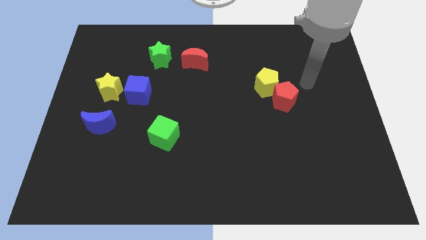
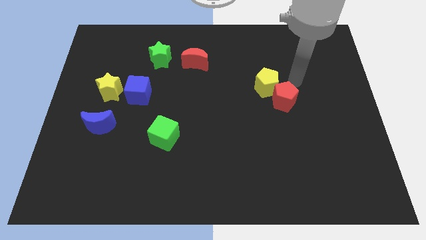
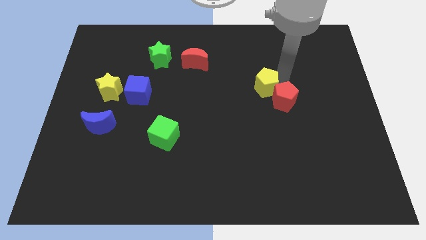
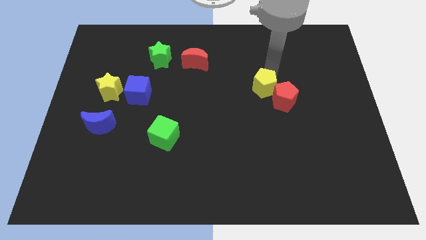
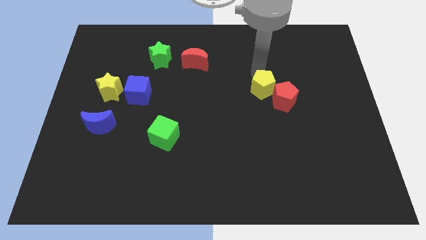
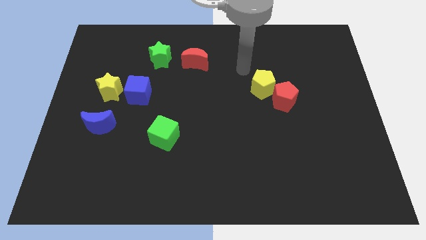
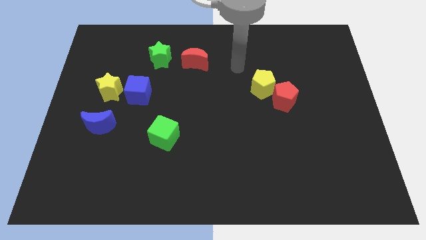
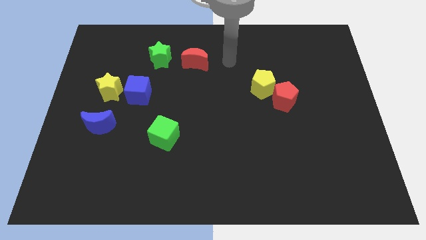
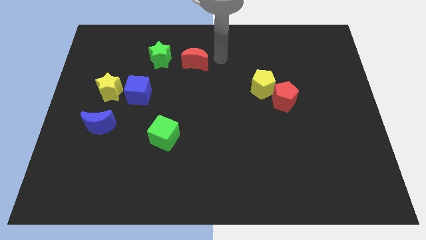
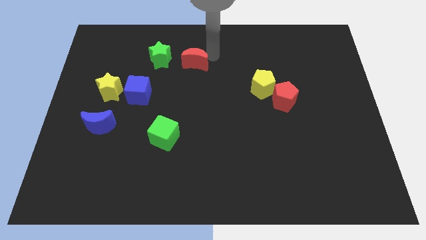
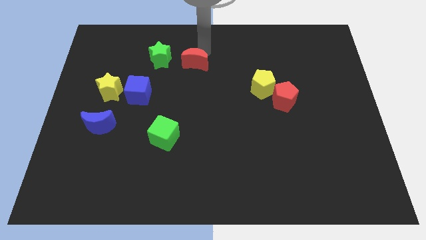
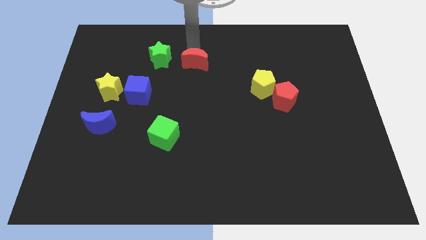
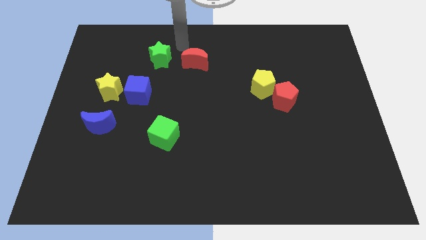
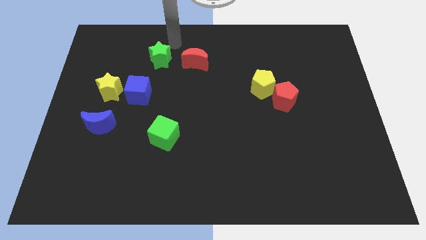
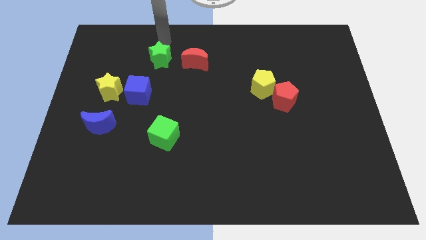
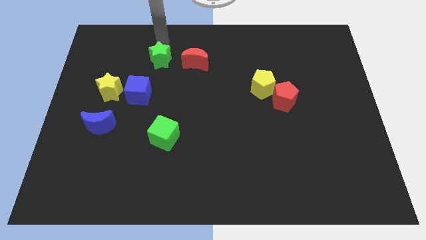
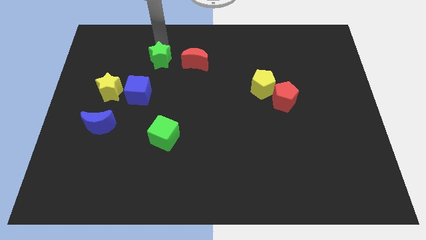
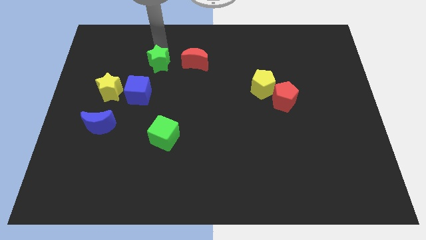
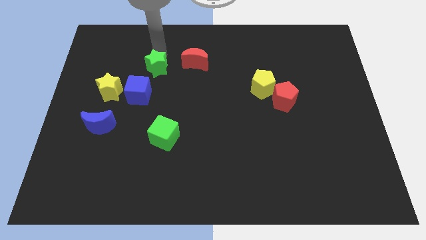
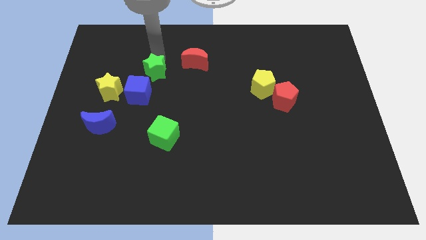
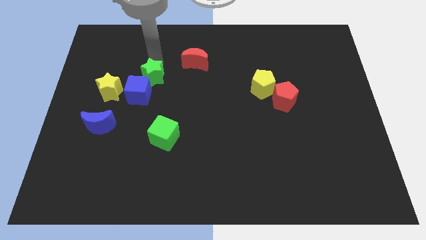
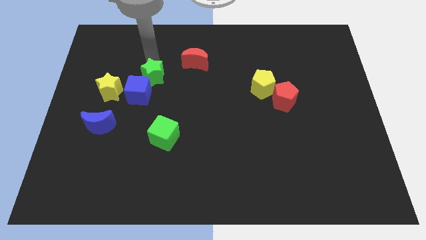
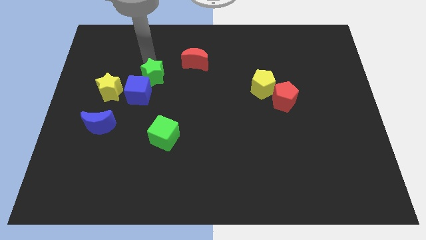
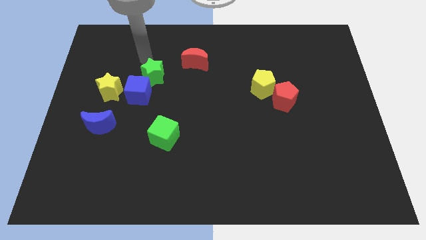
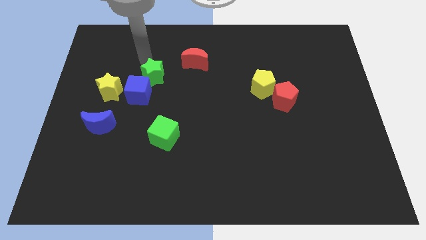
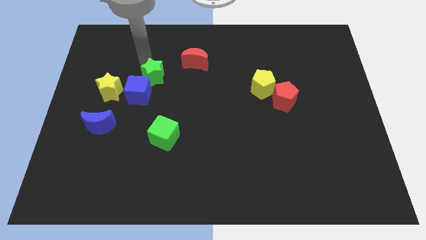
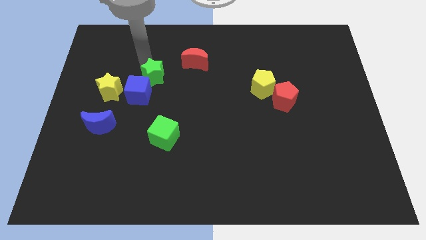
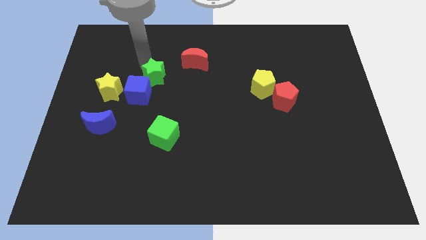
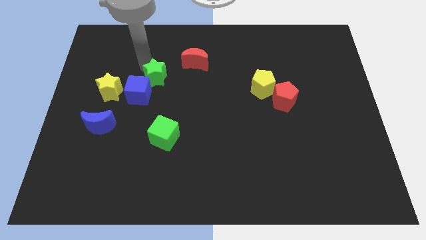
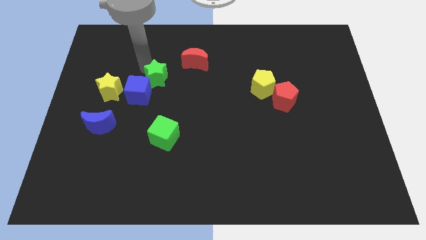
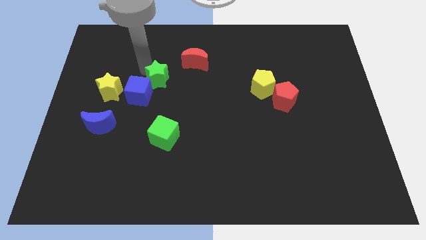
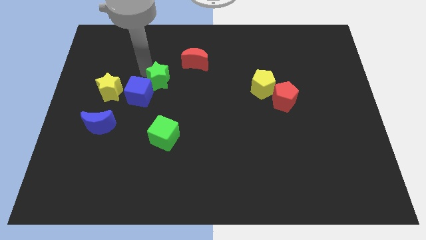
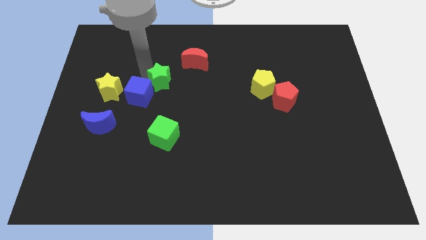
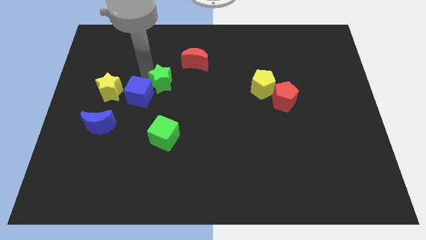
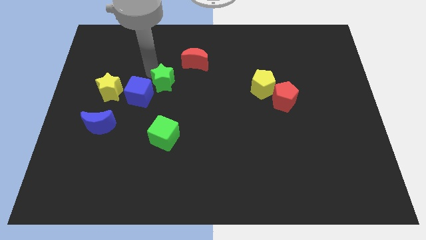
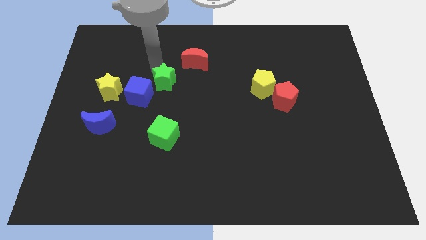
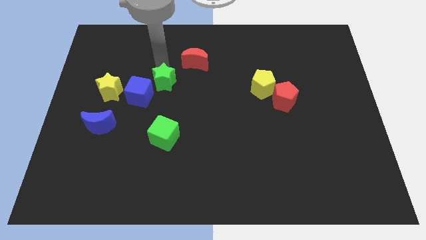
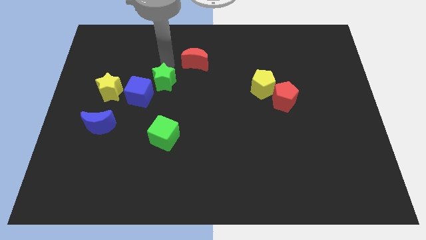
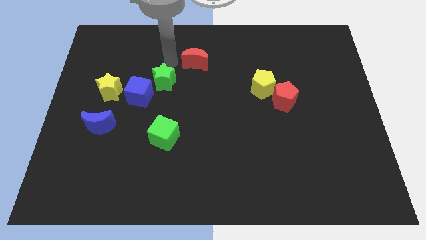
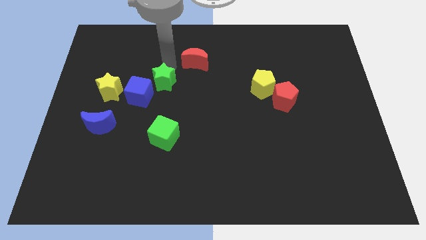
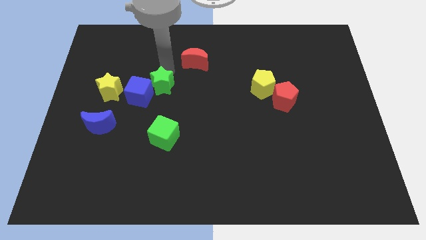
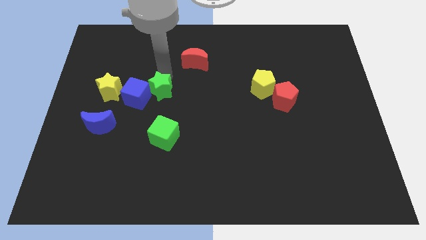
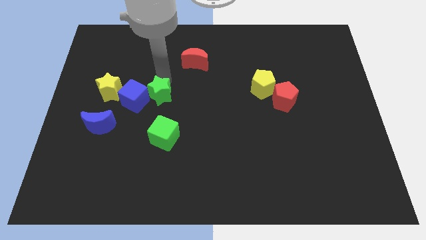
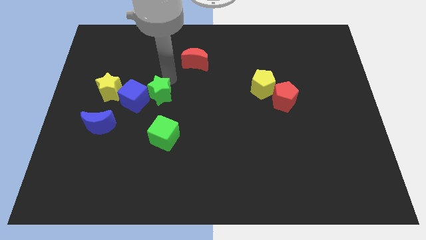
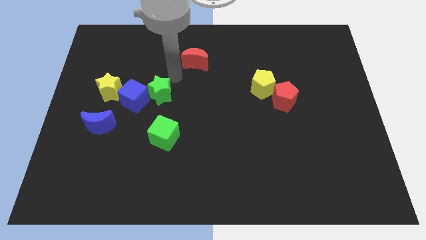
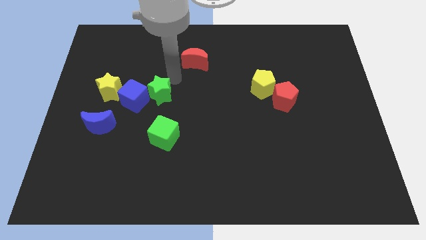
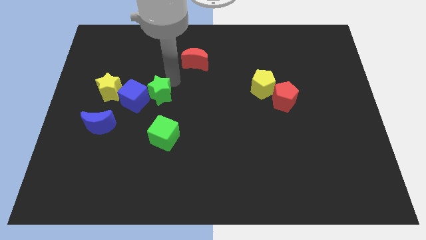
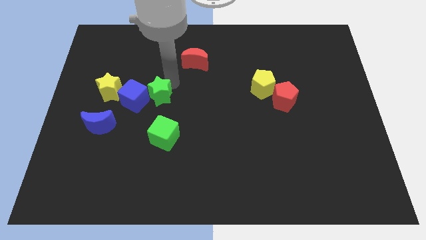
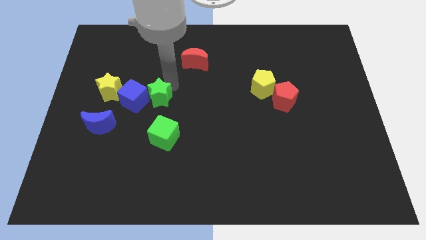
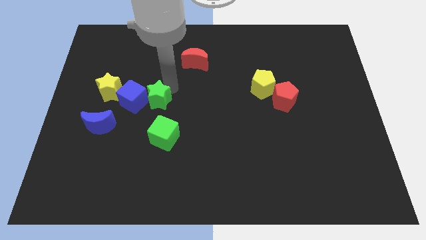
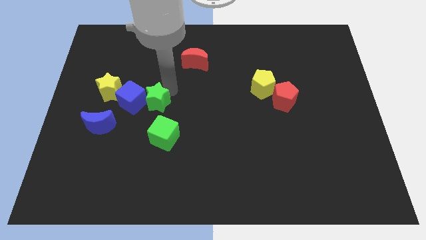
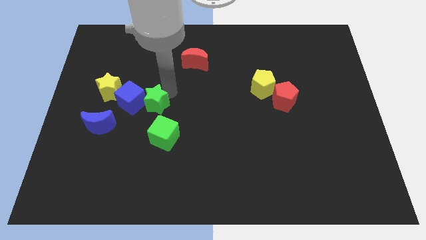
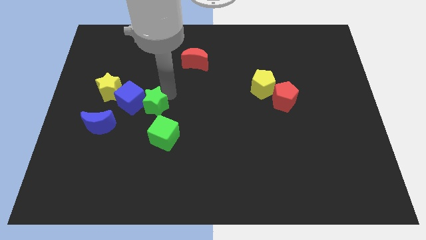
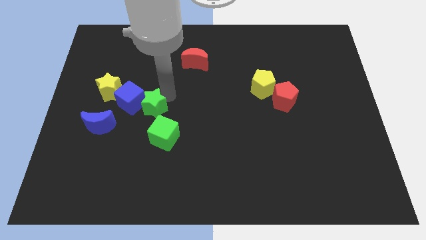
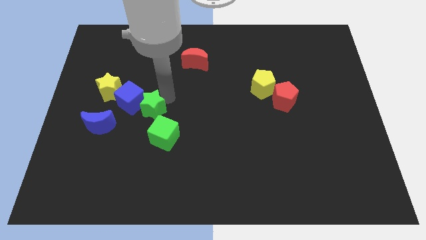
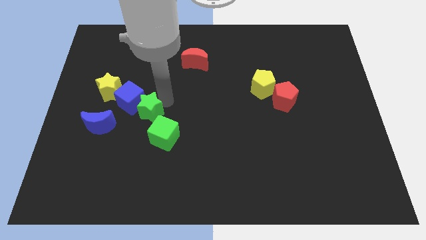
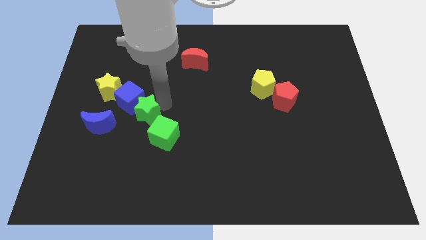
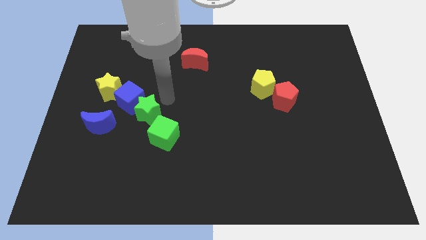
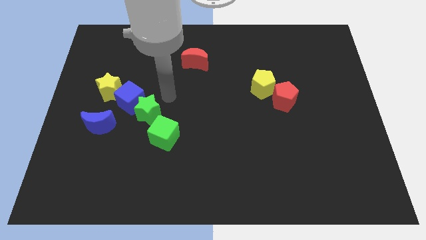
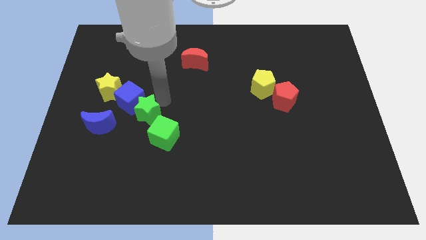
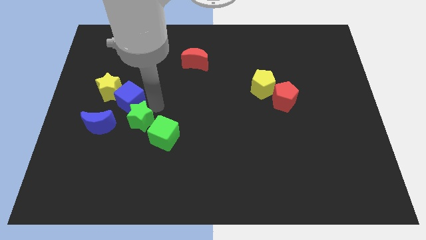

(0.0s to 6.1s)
move the green star to the left side of the green cube

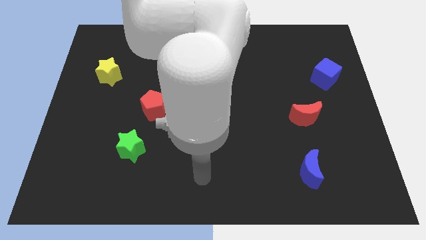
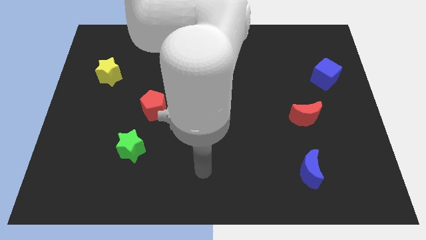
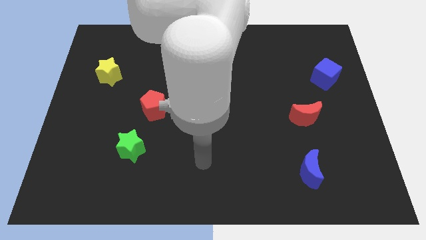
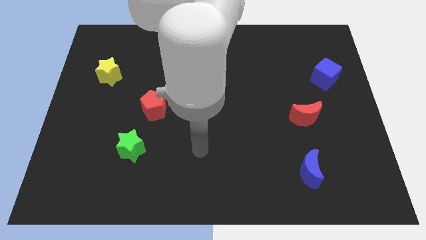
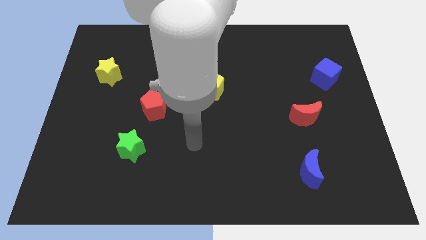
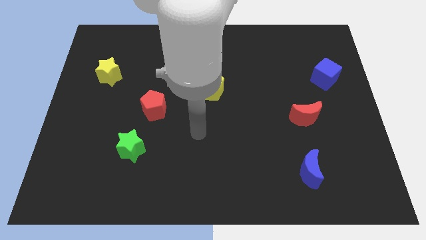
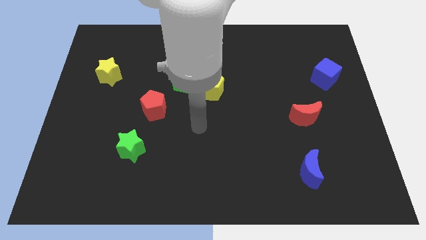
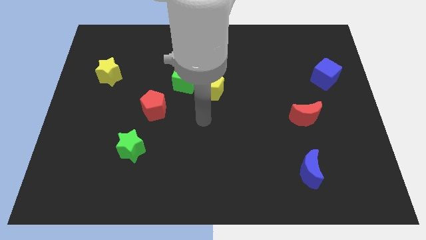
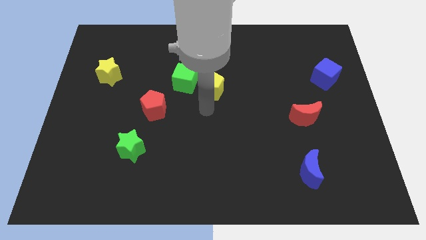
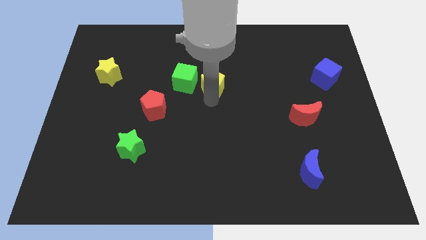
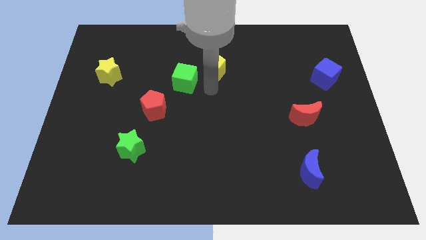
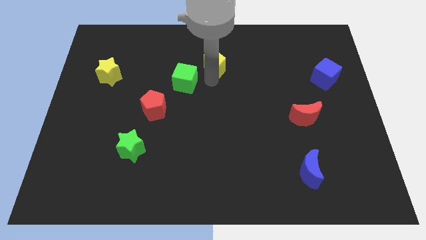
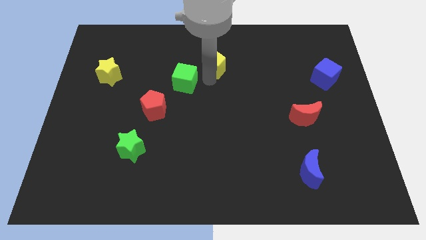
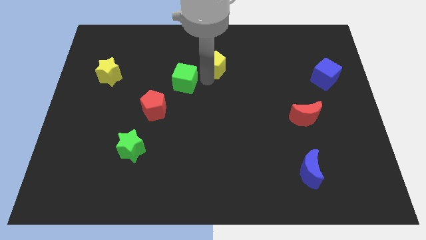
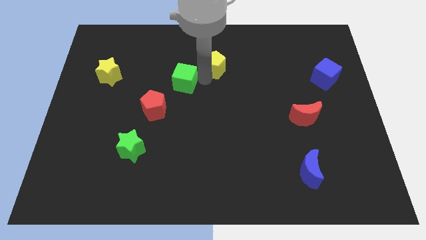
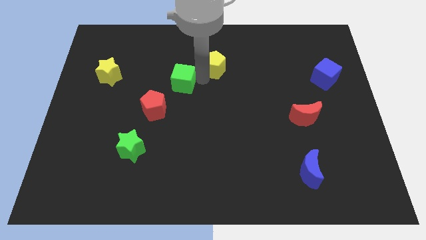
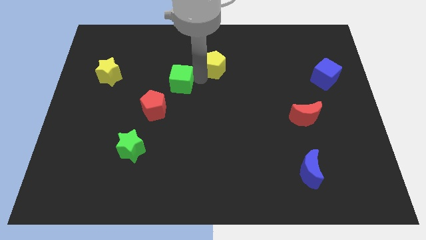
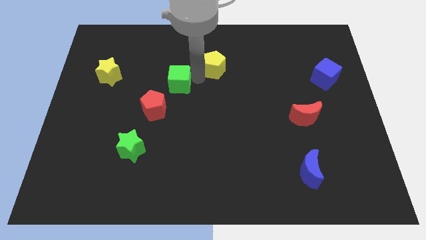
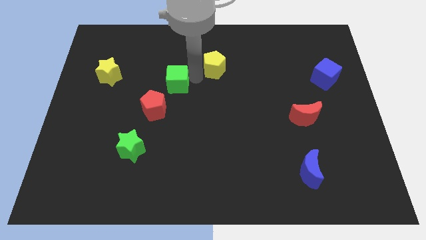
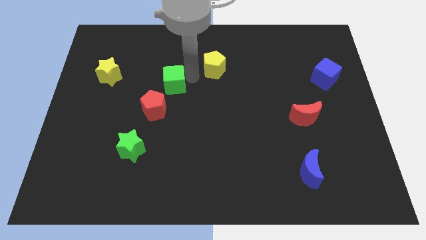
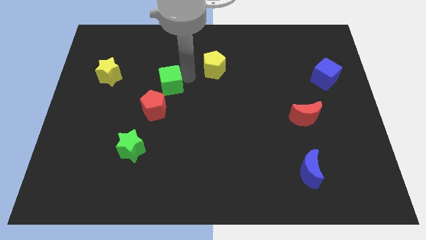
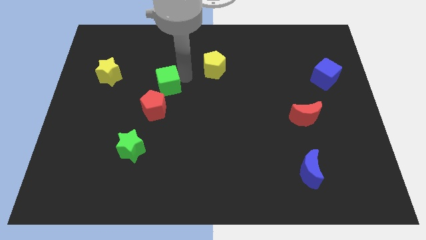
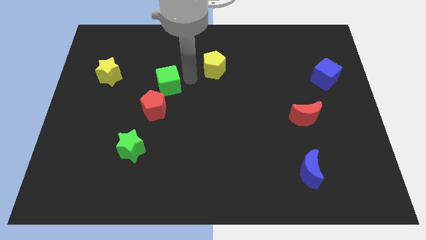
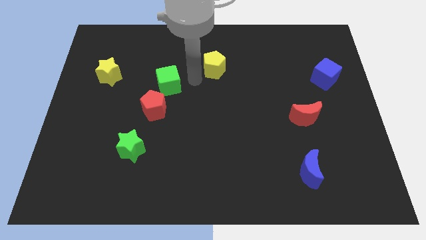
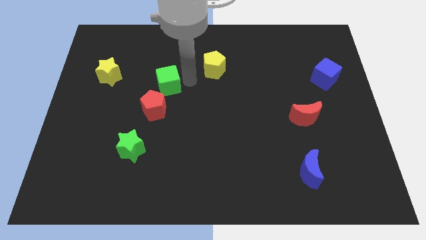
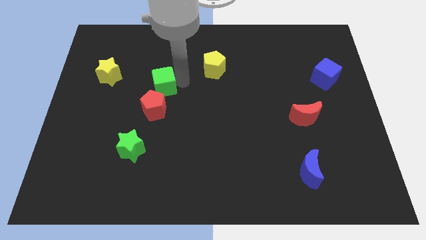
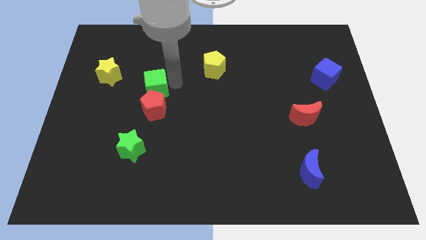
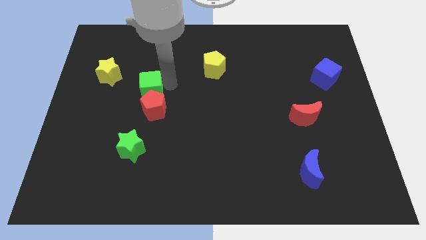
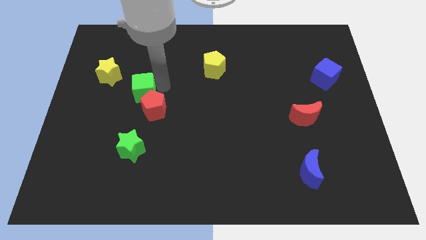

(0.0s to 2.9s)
slide the green cube to the bottom right of the yellow star
